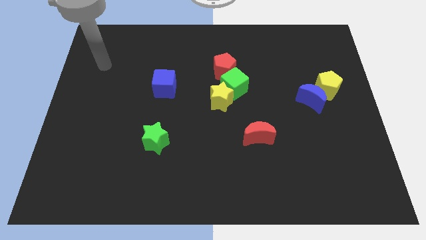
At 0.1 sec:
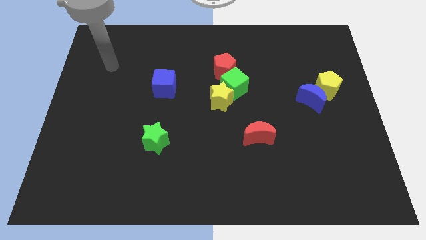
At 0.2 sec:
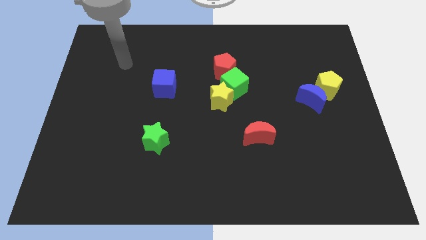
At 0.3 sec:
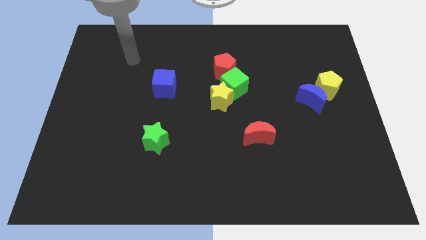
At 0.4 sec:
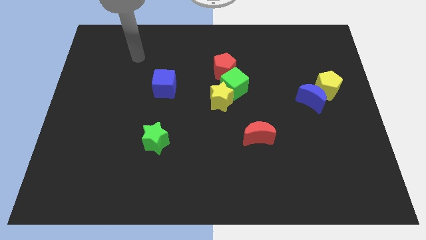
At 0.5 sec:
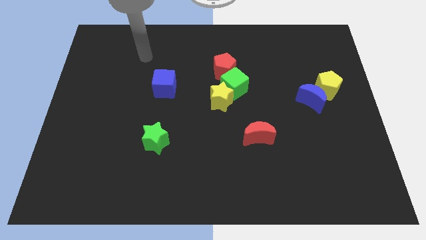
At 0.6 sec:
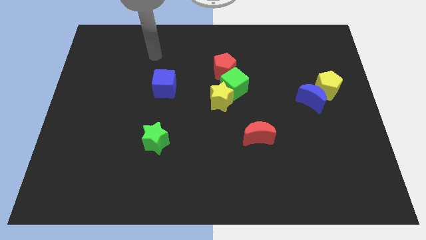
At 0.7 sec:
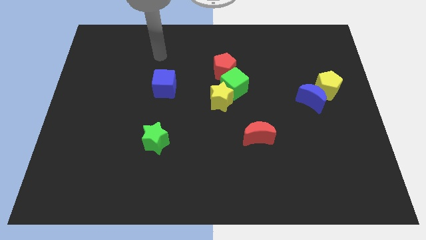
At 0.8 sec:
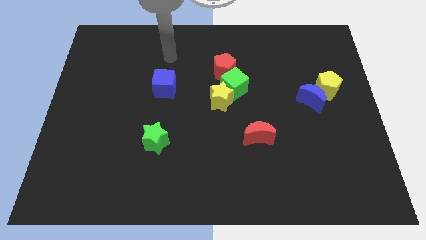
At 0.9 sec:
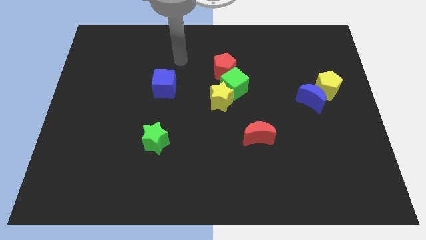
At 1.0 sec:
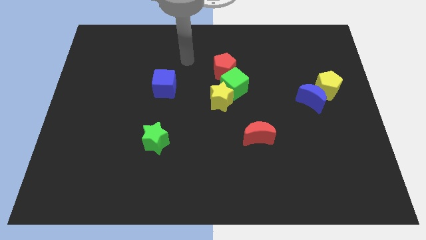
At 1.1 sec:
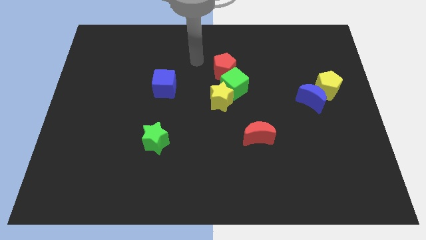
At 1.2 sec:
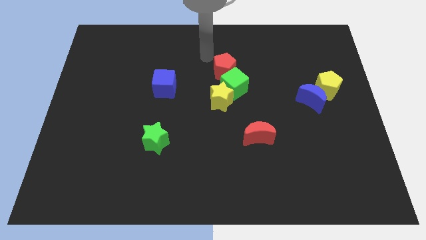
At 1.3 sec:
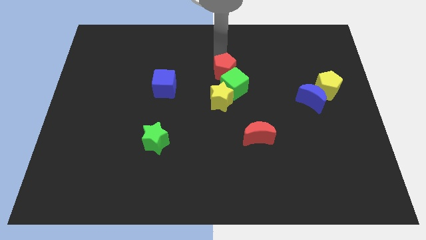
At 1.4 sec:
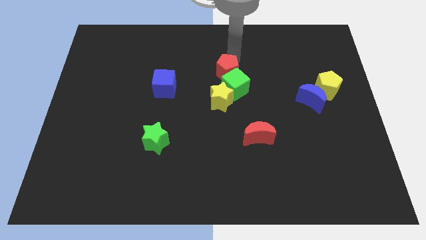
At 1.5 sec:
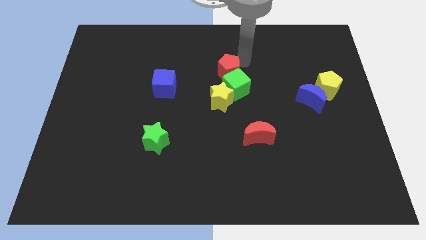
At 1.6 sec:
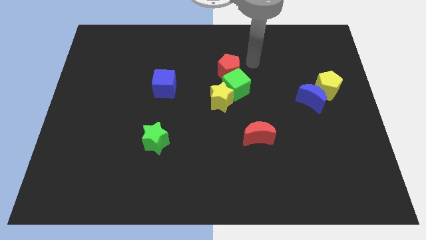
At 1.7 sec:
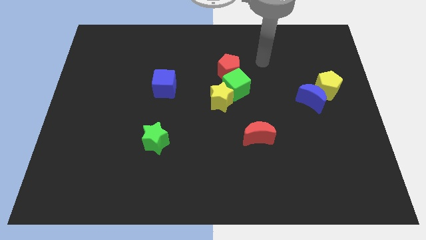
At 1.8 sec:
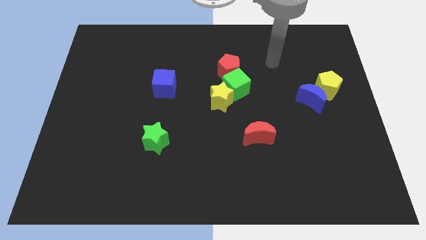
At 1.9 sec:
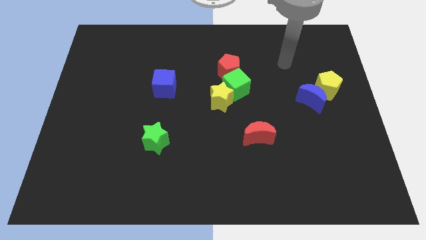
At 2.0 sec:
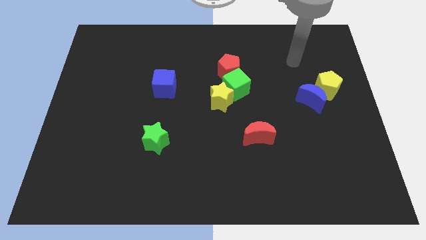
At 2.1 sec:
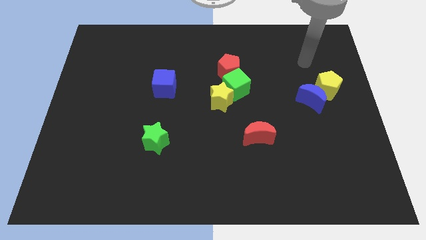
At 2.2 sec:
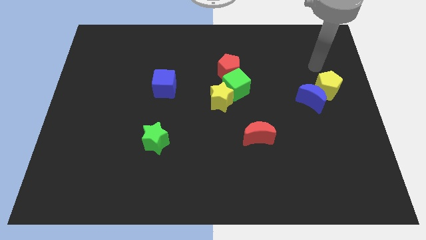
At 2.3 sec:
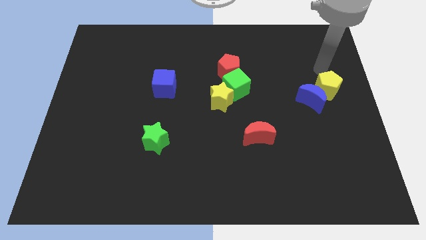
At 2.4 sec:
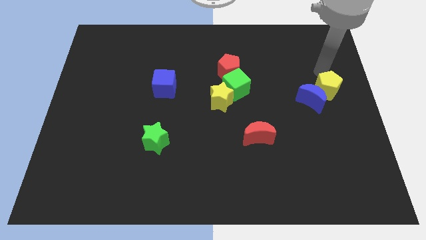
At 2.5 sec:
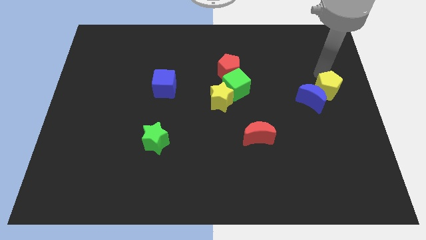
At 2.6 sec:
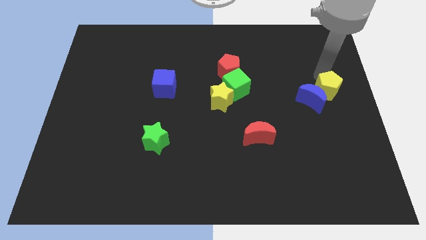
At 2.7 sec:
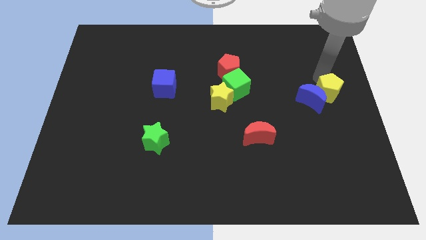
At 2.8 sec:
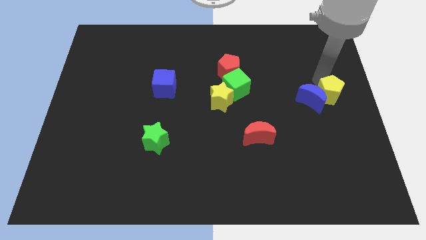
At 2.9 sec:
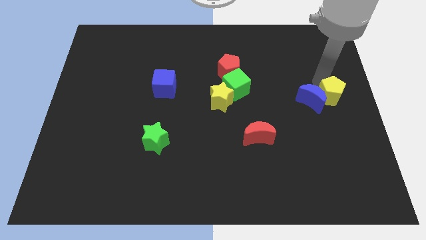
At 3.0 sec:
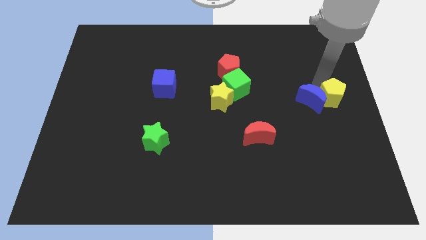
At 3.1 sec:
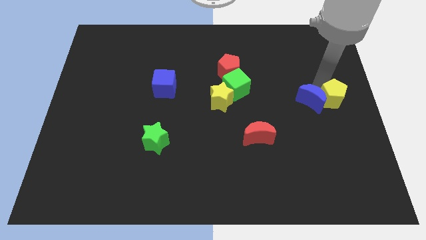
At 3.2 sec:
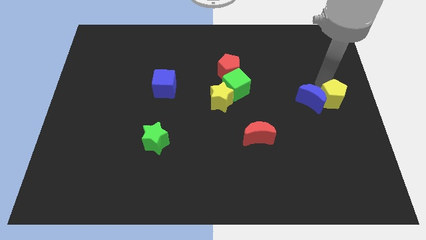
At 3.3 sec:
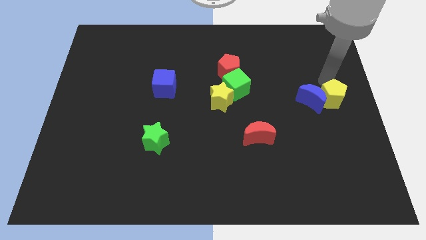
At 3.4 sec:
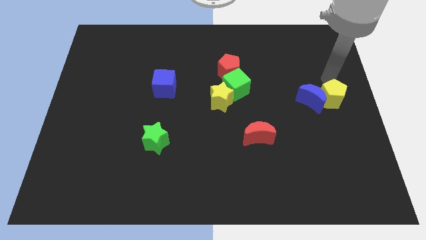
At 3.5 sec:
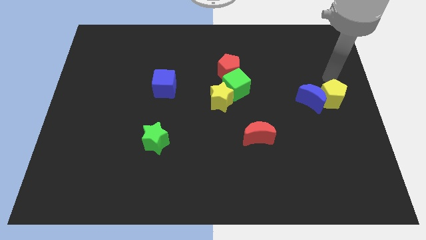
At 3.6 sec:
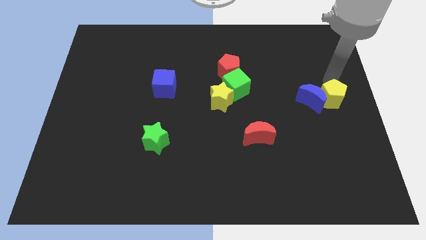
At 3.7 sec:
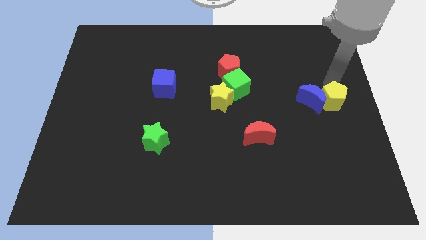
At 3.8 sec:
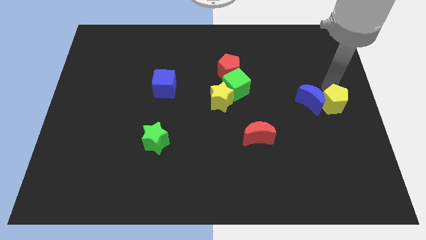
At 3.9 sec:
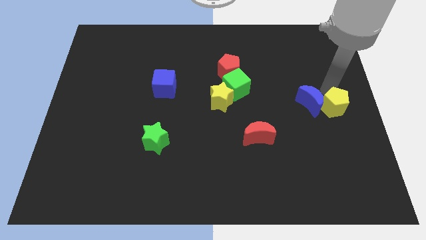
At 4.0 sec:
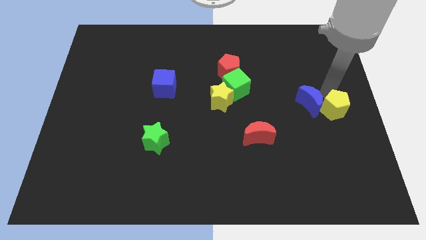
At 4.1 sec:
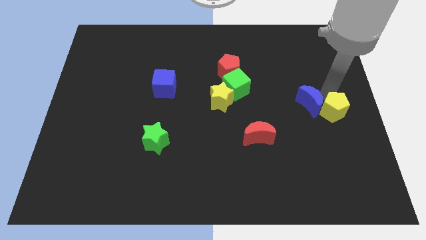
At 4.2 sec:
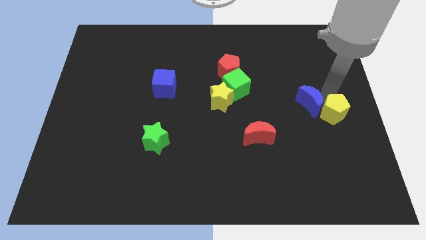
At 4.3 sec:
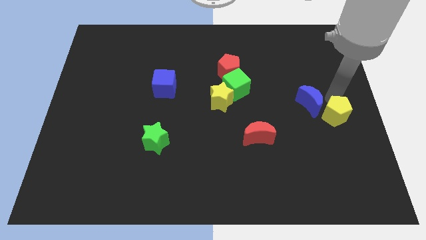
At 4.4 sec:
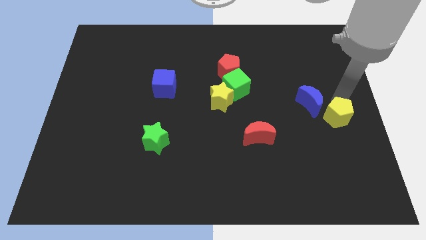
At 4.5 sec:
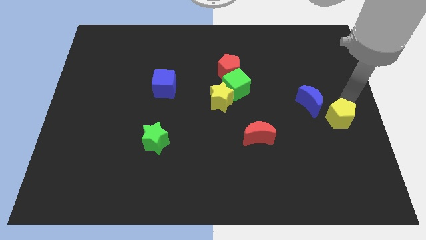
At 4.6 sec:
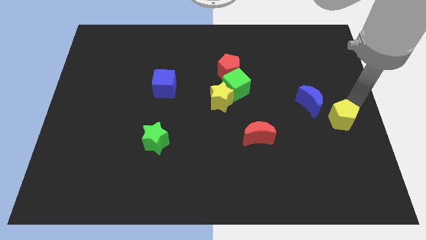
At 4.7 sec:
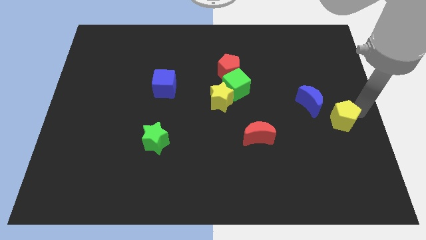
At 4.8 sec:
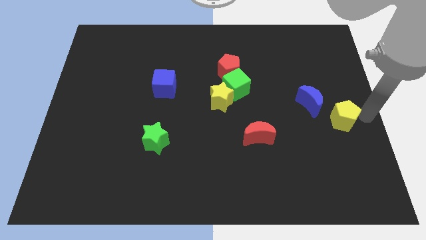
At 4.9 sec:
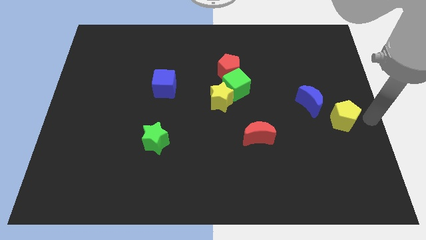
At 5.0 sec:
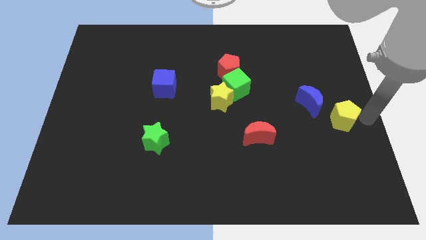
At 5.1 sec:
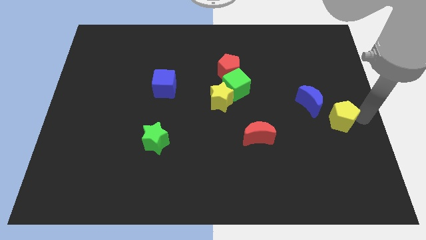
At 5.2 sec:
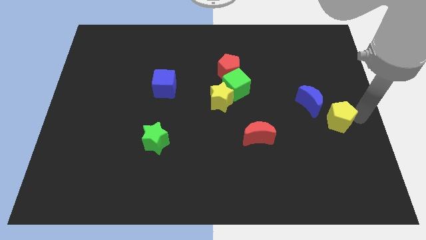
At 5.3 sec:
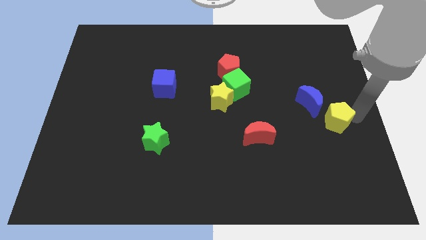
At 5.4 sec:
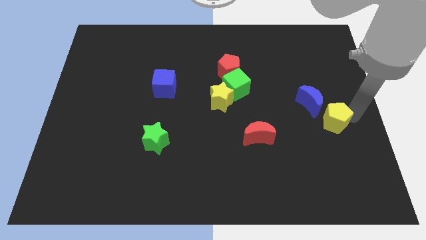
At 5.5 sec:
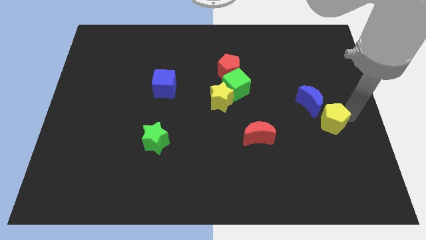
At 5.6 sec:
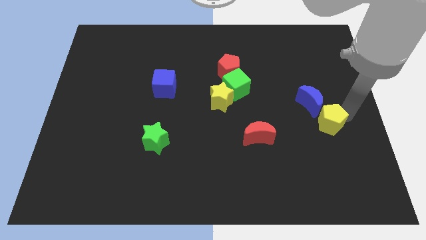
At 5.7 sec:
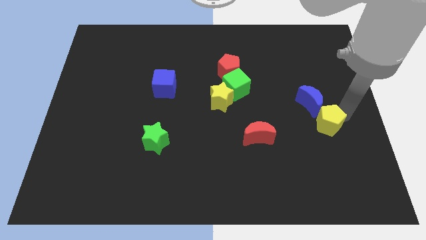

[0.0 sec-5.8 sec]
slightly move the yellow pentagon down and to the left

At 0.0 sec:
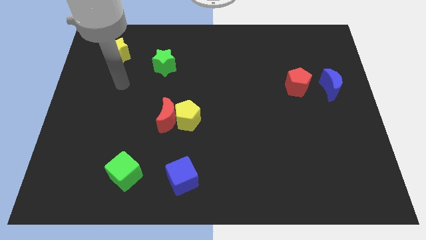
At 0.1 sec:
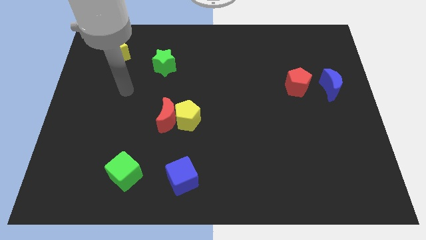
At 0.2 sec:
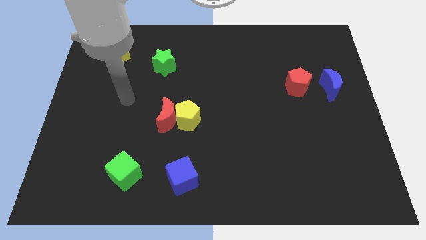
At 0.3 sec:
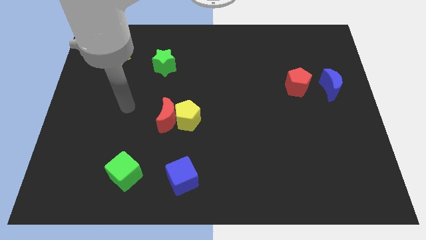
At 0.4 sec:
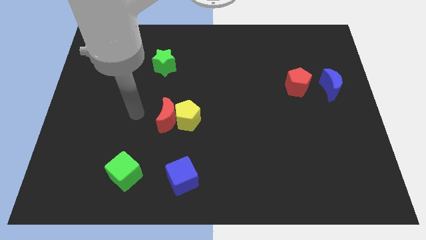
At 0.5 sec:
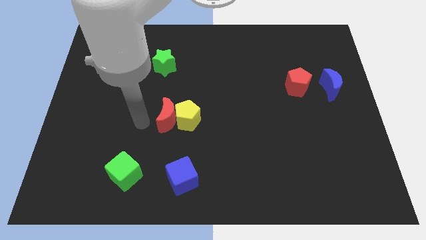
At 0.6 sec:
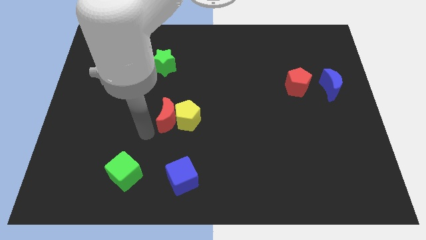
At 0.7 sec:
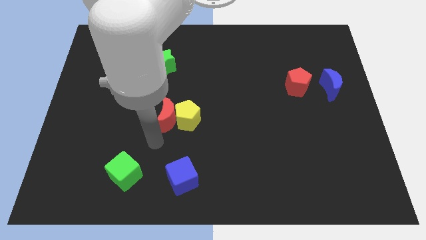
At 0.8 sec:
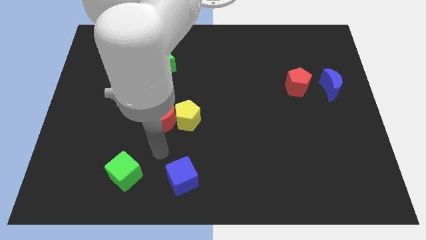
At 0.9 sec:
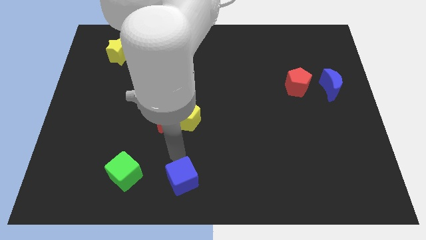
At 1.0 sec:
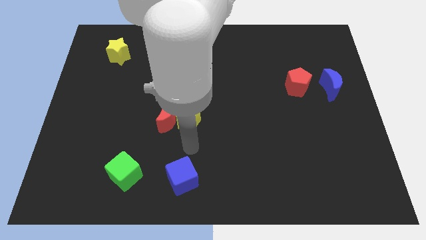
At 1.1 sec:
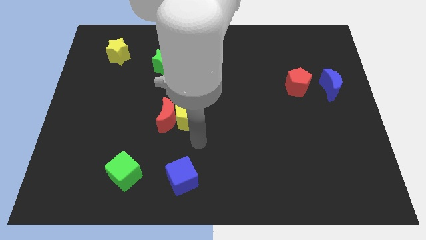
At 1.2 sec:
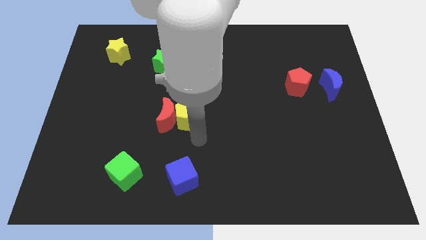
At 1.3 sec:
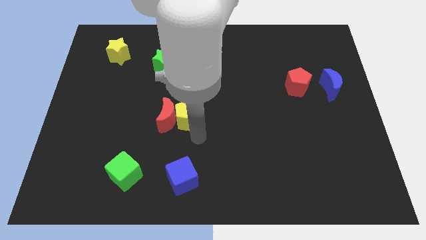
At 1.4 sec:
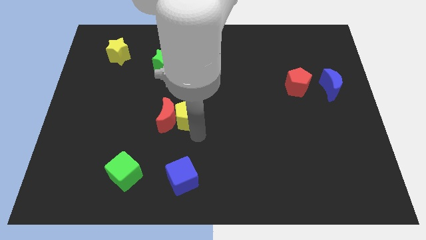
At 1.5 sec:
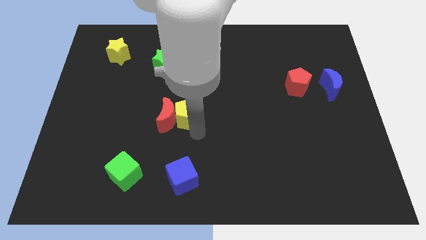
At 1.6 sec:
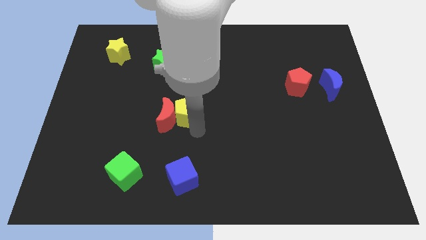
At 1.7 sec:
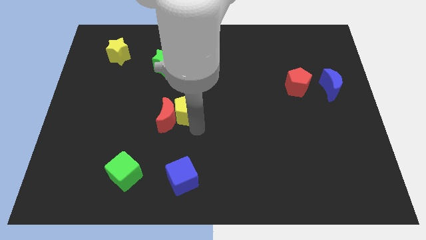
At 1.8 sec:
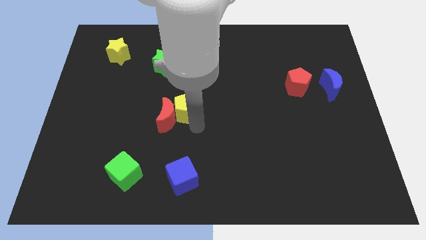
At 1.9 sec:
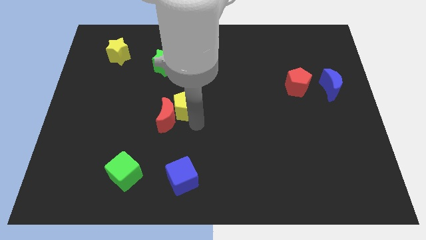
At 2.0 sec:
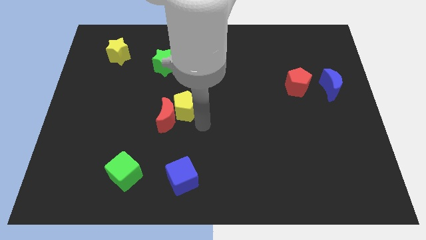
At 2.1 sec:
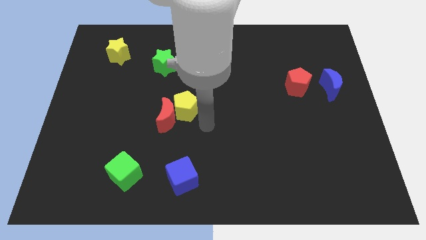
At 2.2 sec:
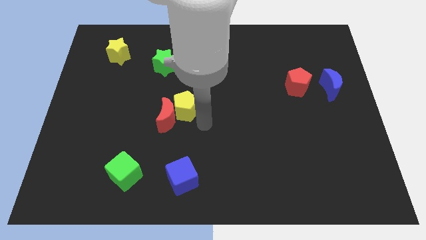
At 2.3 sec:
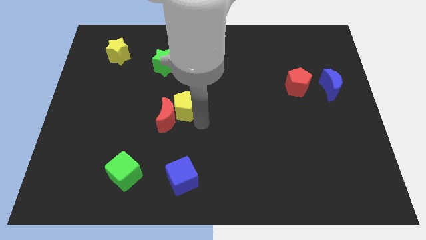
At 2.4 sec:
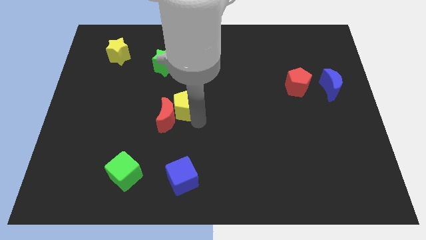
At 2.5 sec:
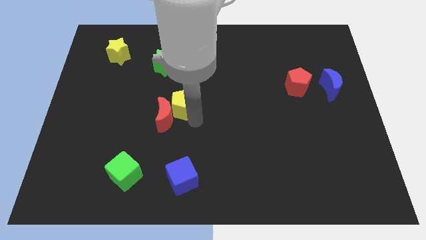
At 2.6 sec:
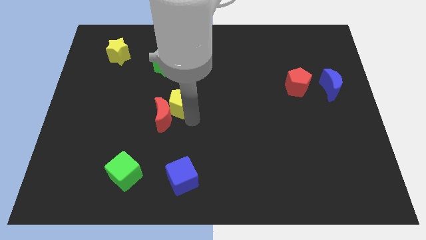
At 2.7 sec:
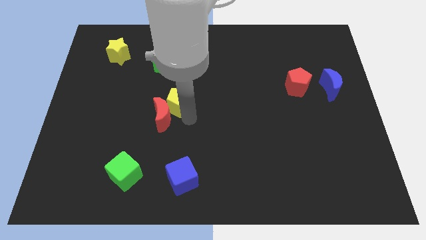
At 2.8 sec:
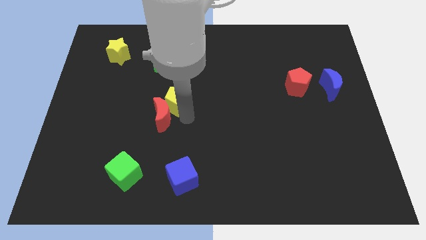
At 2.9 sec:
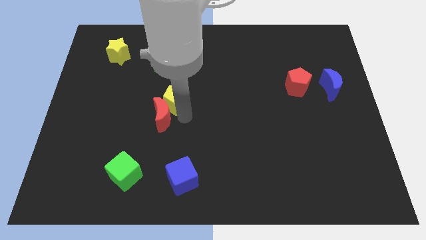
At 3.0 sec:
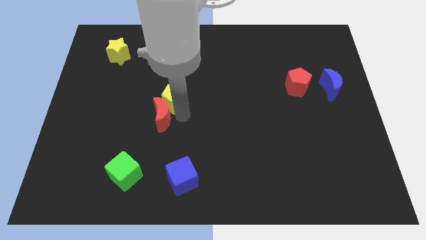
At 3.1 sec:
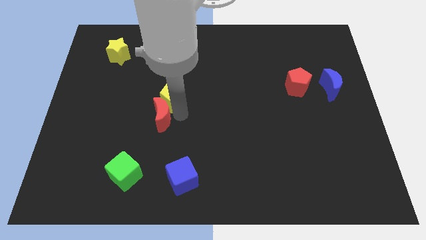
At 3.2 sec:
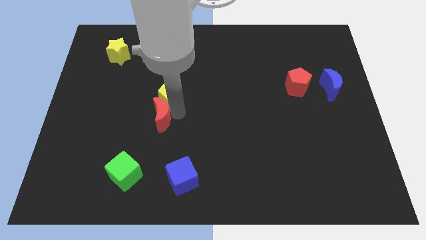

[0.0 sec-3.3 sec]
push the yellow pentagon somewhat up and left
